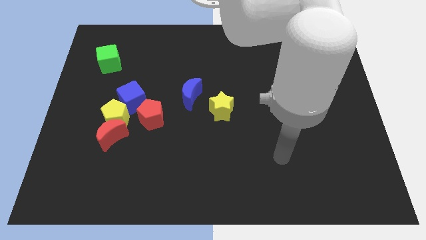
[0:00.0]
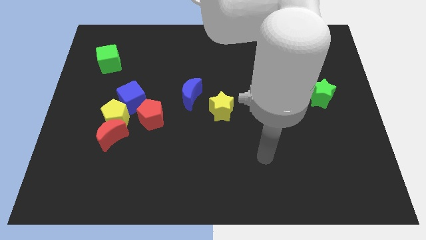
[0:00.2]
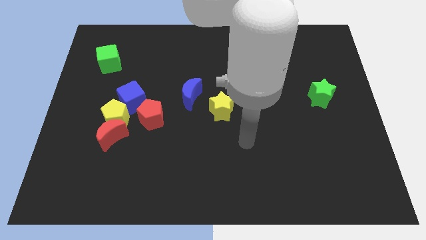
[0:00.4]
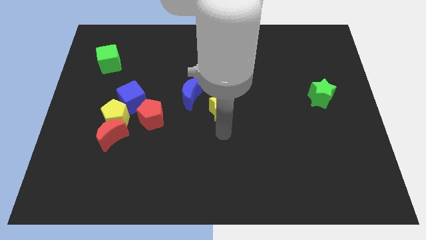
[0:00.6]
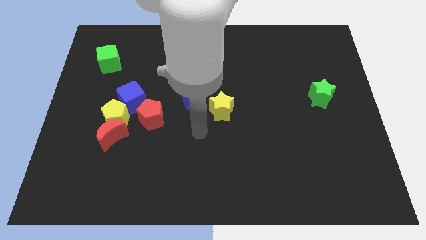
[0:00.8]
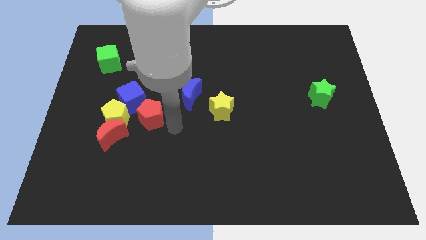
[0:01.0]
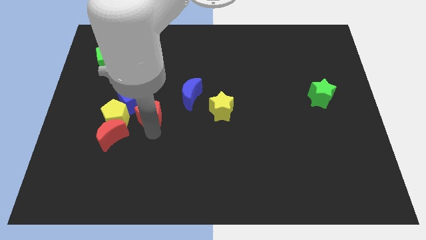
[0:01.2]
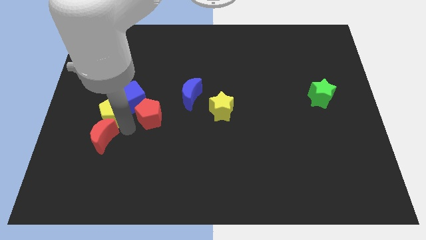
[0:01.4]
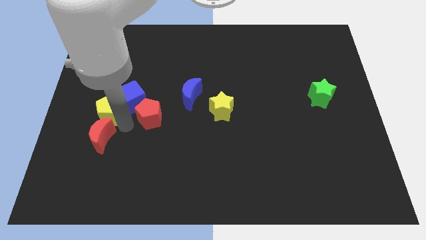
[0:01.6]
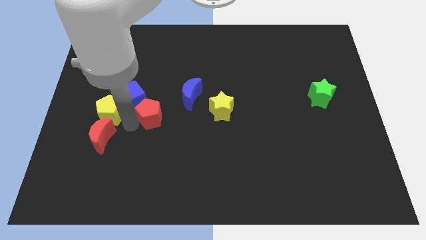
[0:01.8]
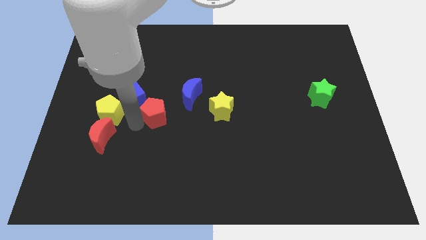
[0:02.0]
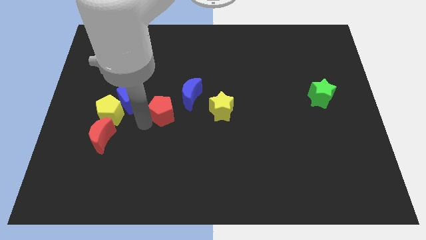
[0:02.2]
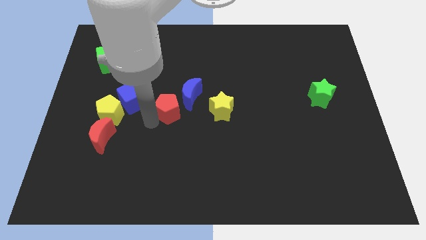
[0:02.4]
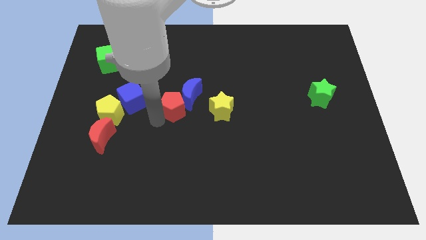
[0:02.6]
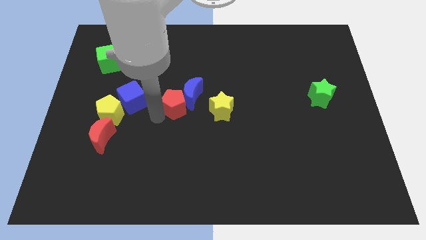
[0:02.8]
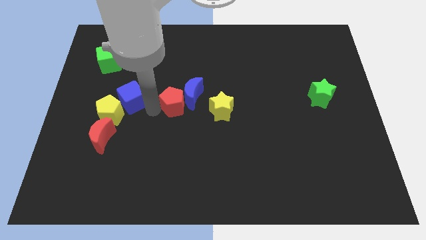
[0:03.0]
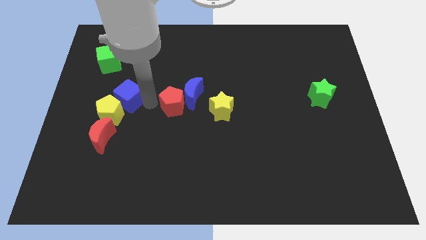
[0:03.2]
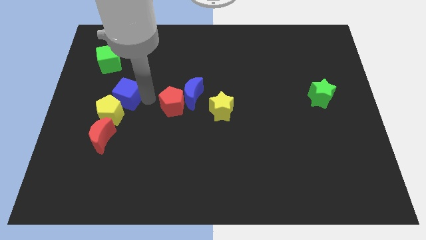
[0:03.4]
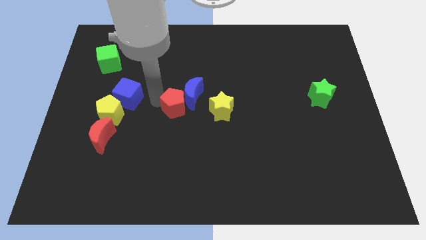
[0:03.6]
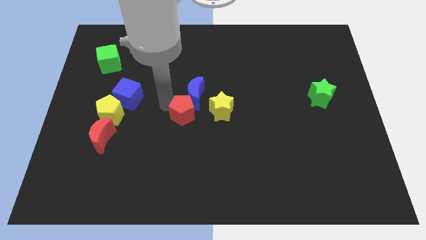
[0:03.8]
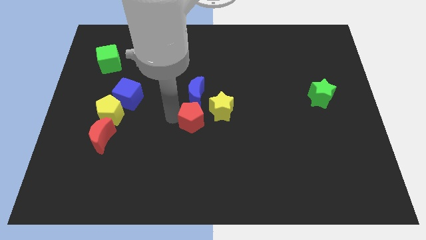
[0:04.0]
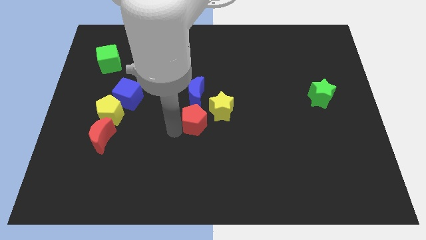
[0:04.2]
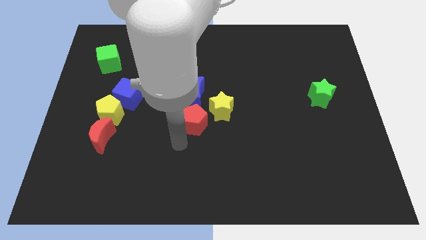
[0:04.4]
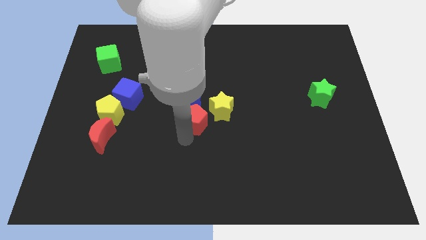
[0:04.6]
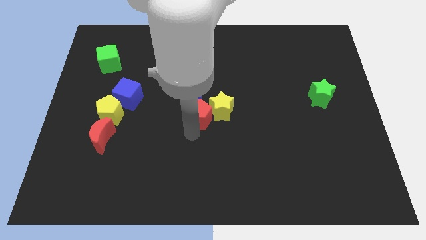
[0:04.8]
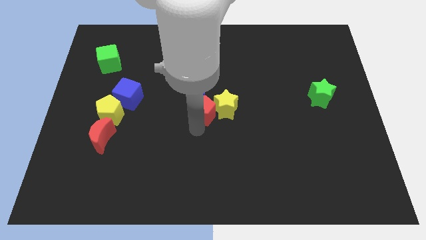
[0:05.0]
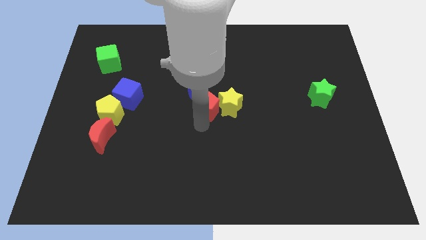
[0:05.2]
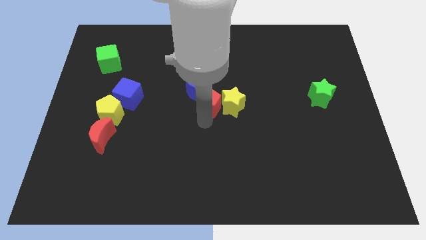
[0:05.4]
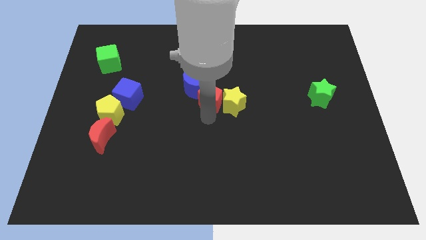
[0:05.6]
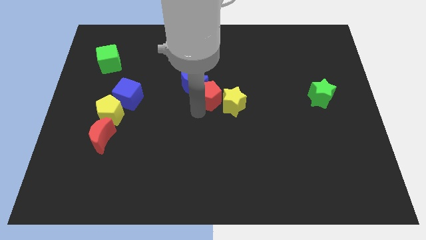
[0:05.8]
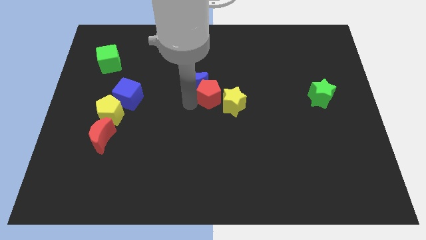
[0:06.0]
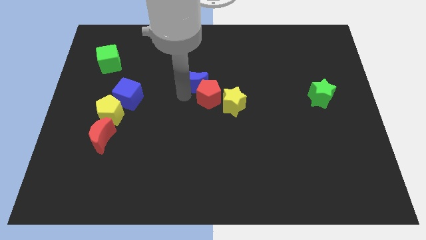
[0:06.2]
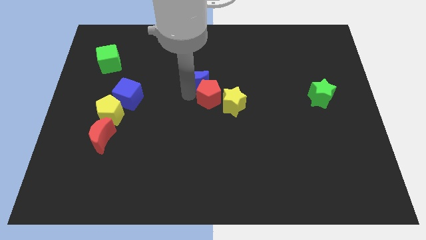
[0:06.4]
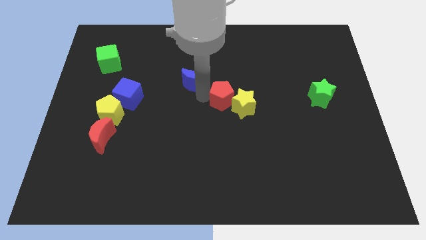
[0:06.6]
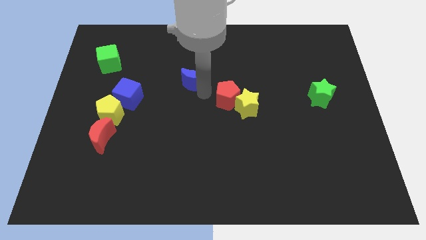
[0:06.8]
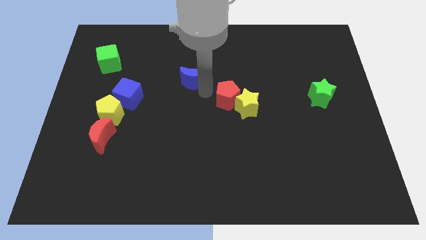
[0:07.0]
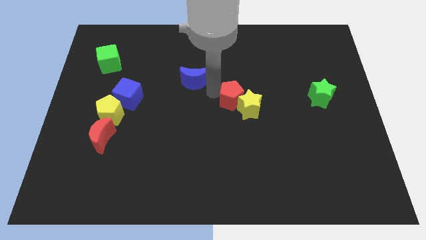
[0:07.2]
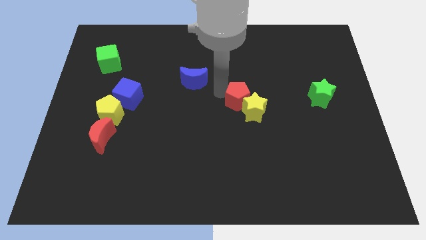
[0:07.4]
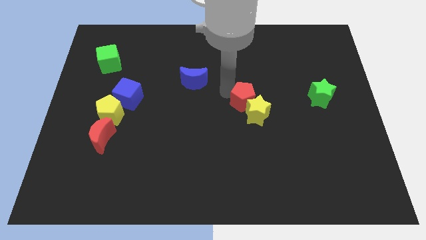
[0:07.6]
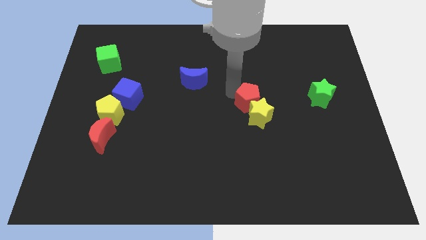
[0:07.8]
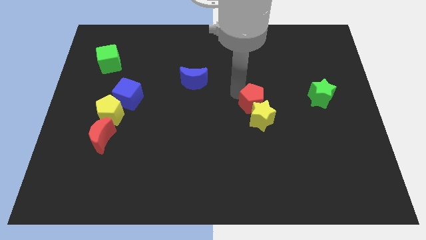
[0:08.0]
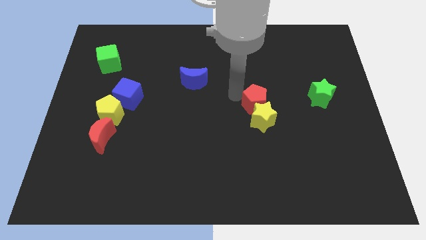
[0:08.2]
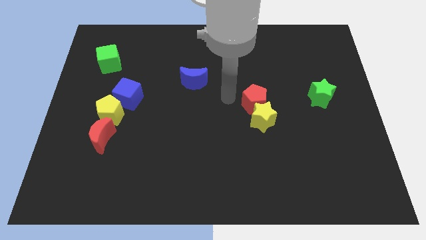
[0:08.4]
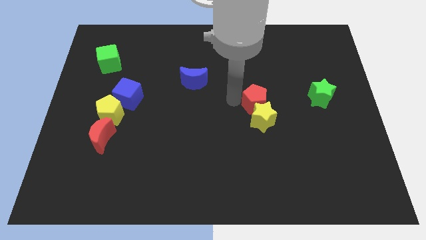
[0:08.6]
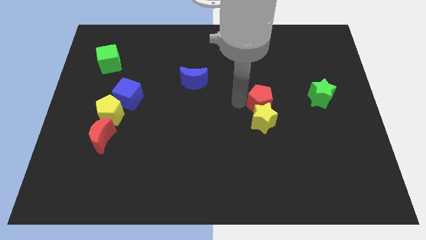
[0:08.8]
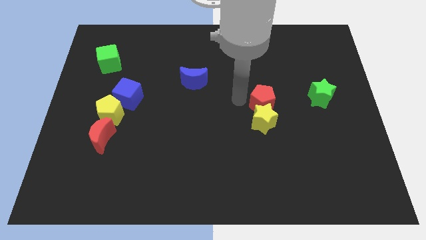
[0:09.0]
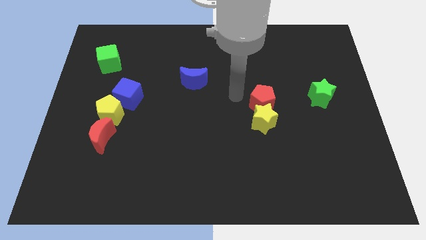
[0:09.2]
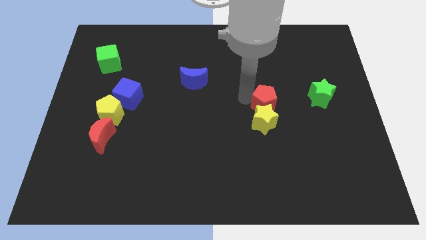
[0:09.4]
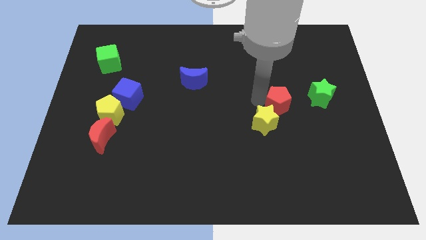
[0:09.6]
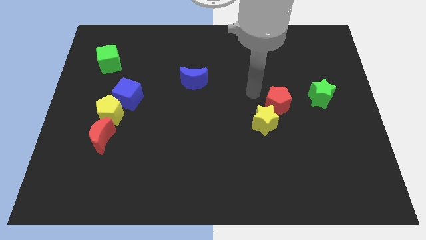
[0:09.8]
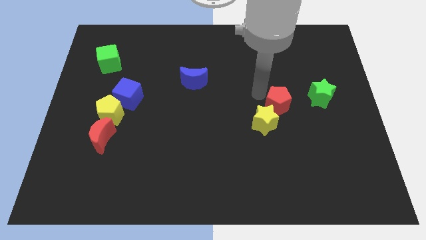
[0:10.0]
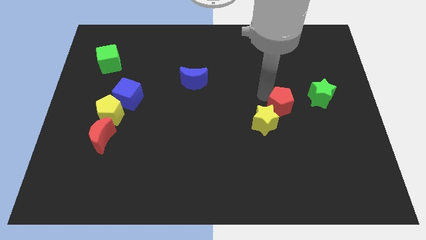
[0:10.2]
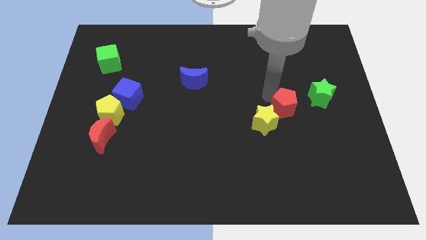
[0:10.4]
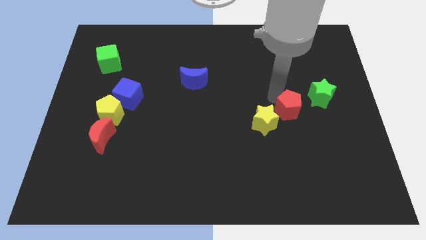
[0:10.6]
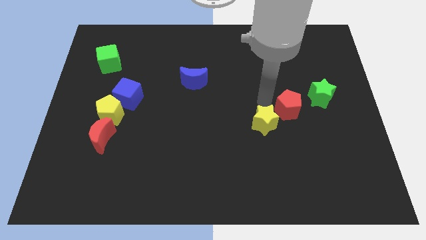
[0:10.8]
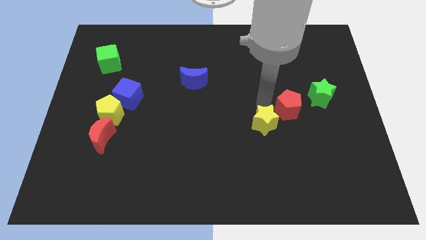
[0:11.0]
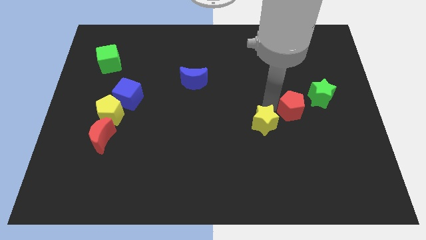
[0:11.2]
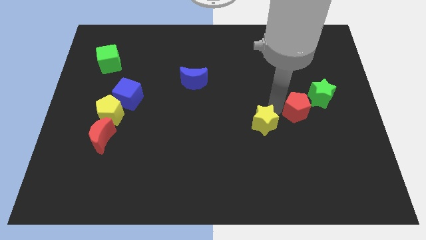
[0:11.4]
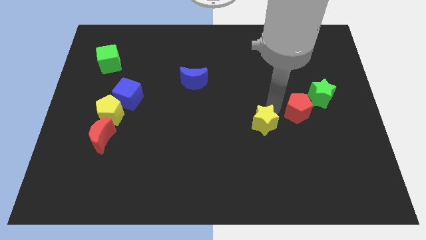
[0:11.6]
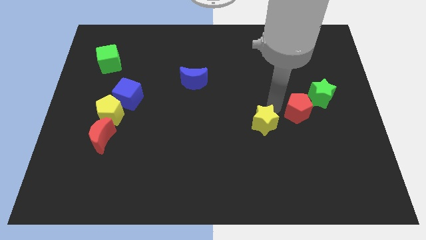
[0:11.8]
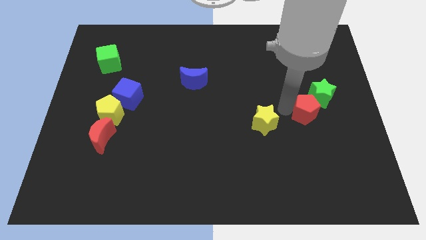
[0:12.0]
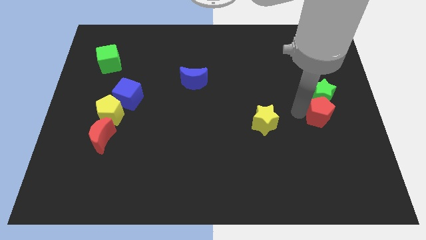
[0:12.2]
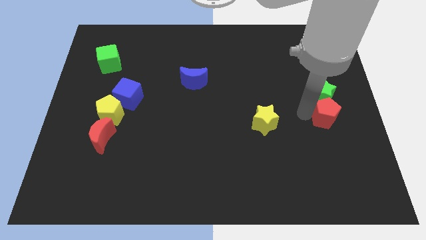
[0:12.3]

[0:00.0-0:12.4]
move the red pentagon to the right side of the board
